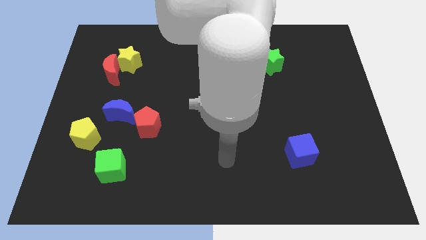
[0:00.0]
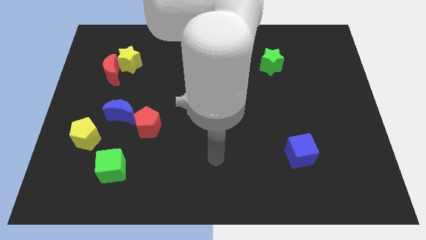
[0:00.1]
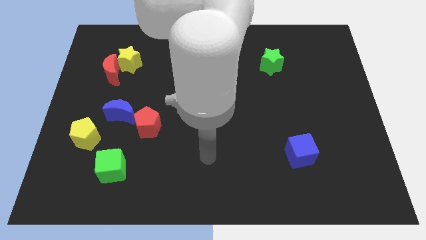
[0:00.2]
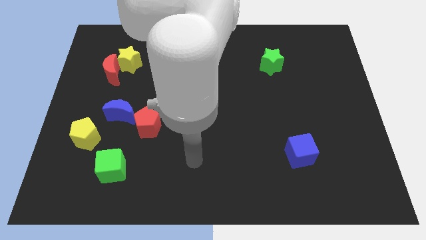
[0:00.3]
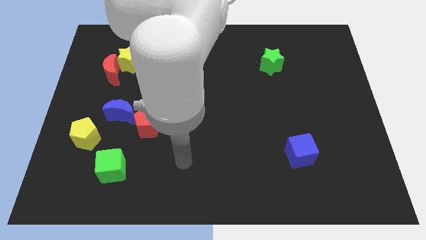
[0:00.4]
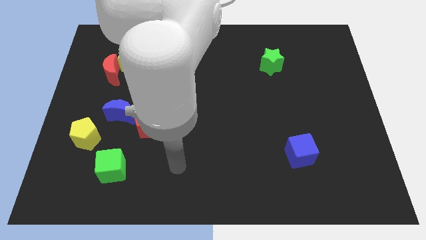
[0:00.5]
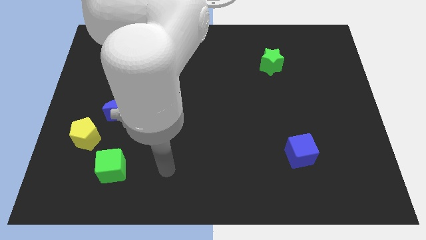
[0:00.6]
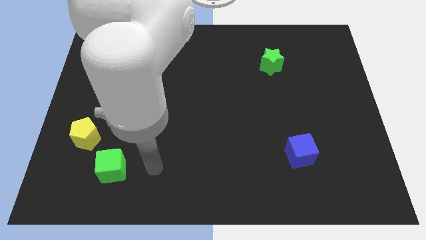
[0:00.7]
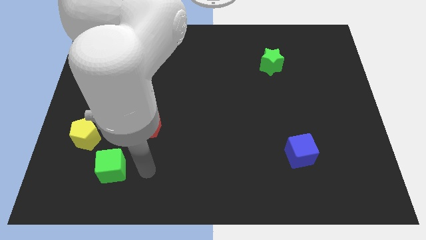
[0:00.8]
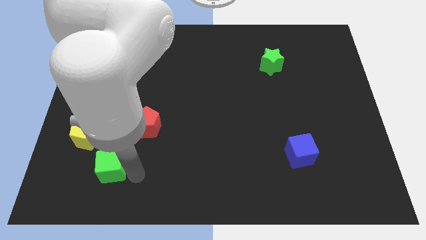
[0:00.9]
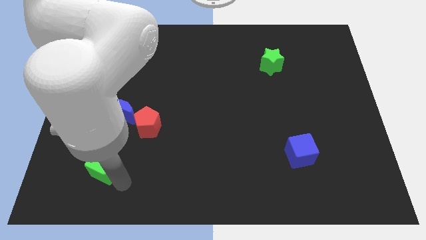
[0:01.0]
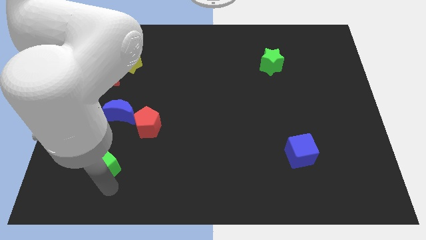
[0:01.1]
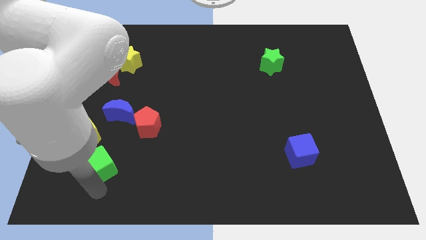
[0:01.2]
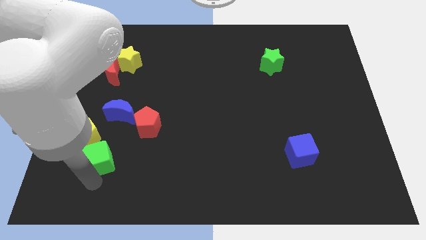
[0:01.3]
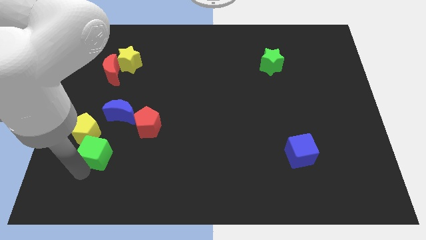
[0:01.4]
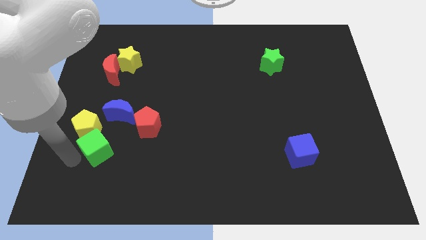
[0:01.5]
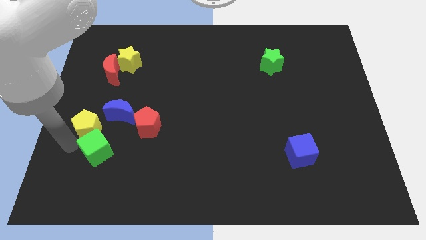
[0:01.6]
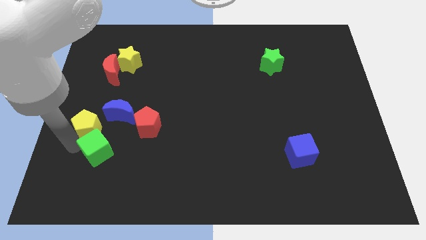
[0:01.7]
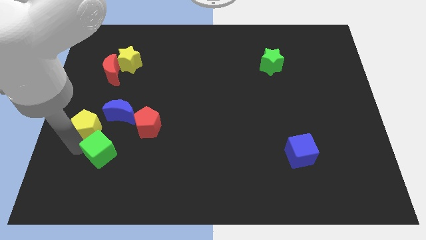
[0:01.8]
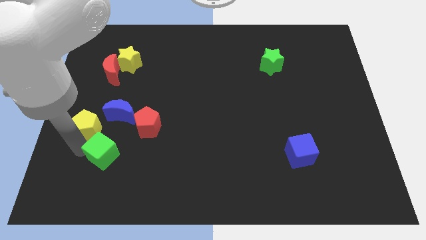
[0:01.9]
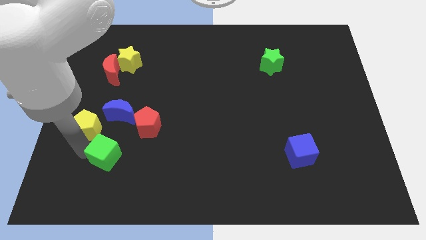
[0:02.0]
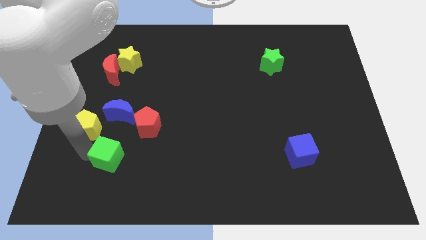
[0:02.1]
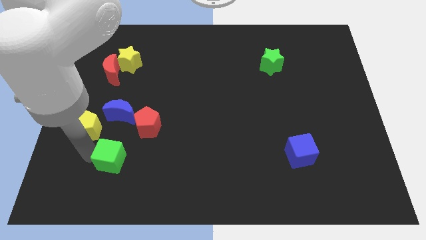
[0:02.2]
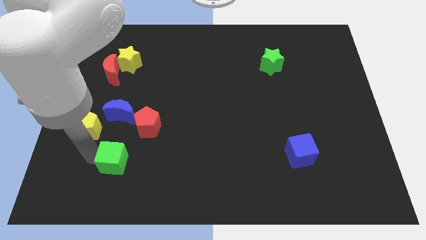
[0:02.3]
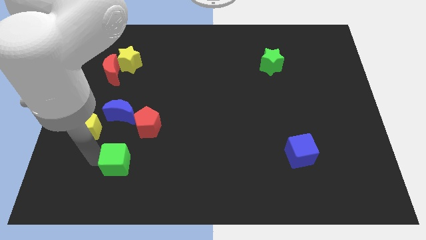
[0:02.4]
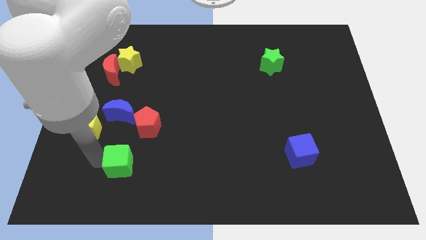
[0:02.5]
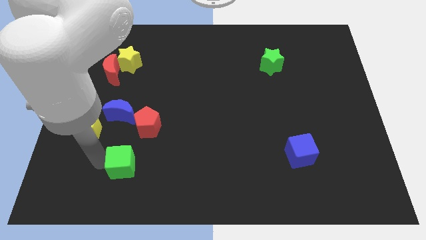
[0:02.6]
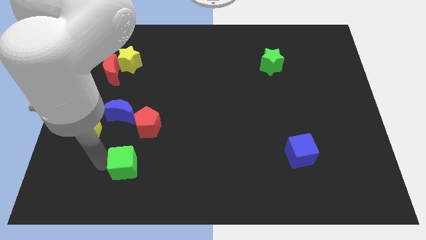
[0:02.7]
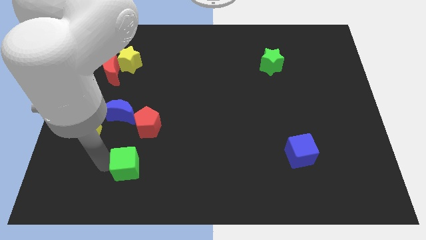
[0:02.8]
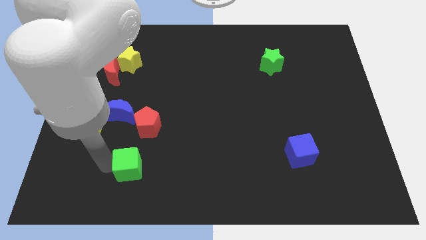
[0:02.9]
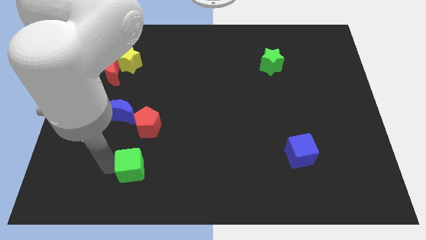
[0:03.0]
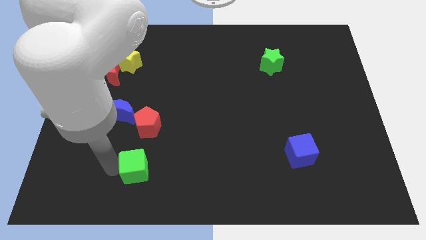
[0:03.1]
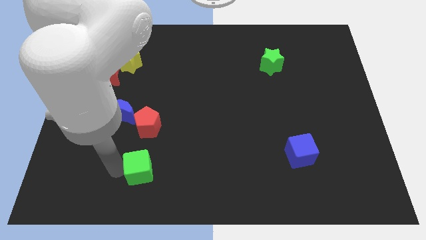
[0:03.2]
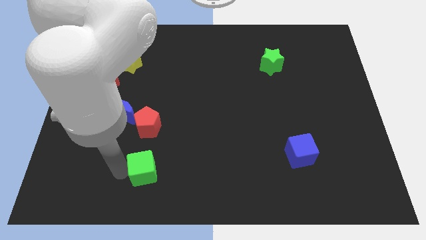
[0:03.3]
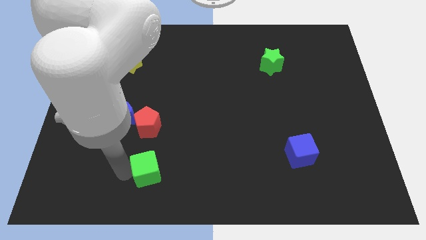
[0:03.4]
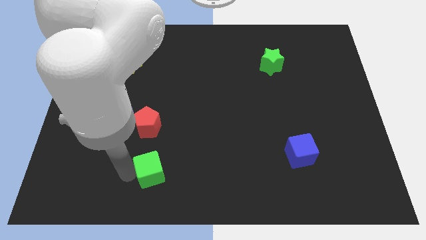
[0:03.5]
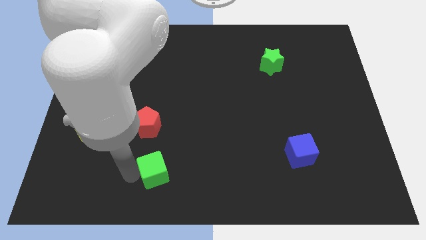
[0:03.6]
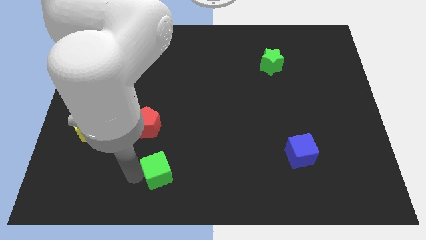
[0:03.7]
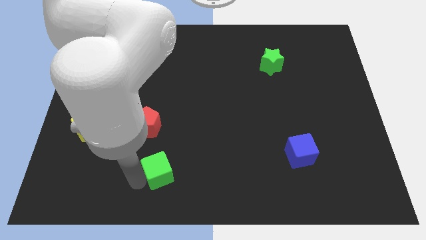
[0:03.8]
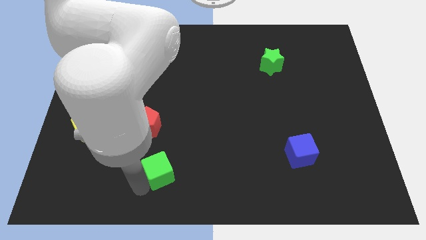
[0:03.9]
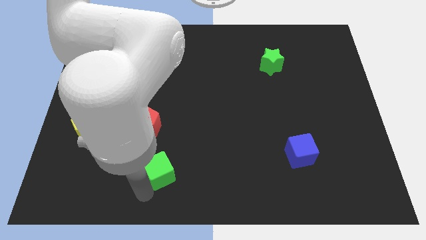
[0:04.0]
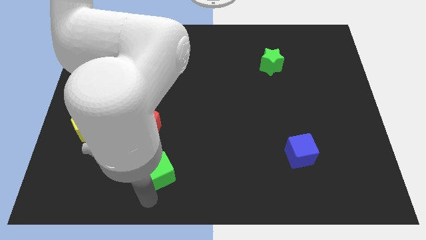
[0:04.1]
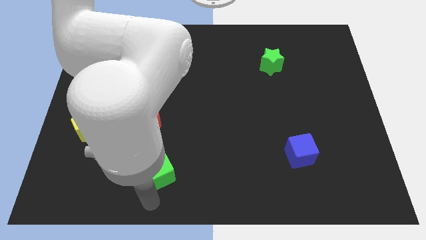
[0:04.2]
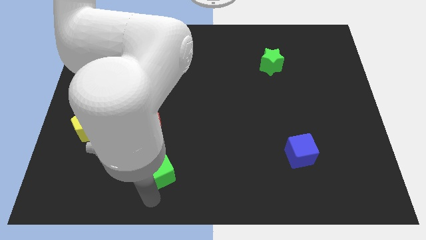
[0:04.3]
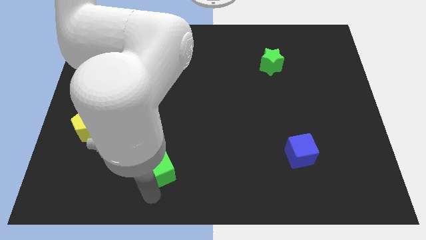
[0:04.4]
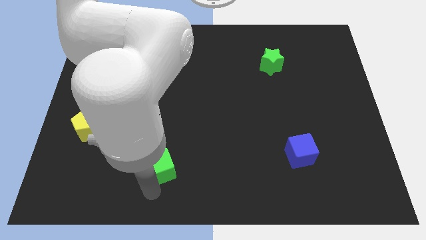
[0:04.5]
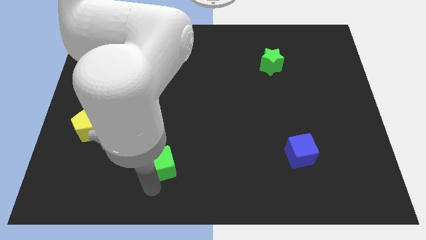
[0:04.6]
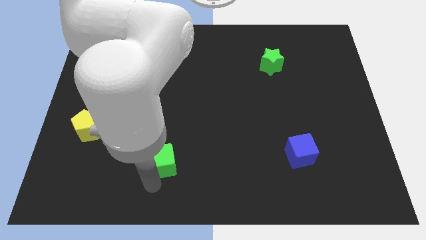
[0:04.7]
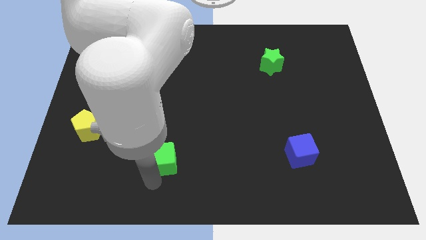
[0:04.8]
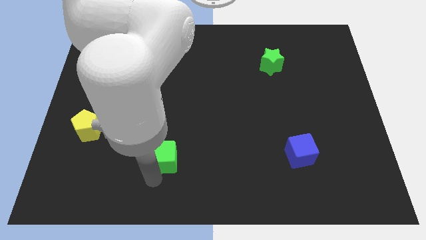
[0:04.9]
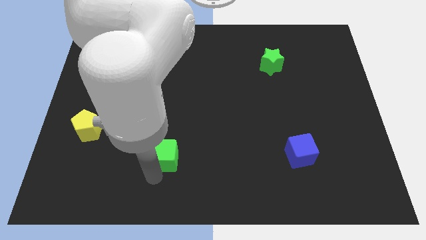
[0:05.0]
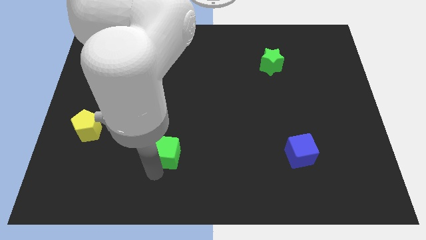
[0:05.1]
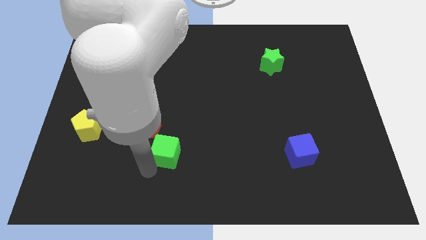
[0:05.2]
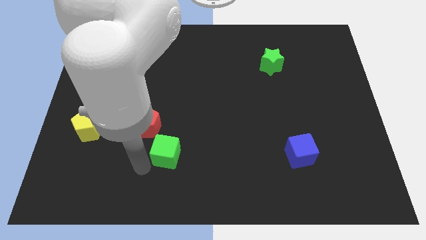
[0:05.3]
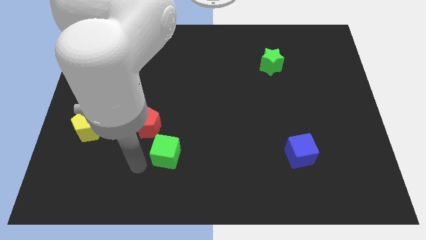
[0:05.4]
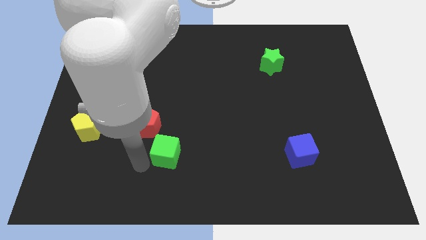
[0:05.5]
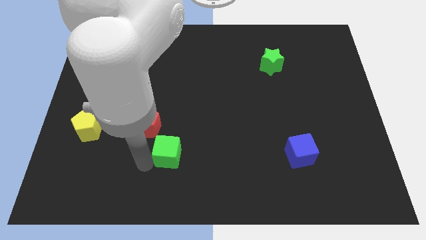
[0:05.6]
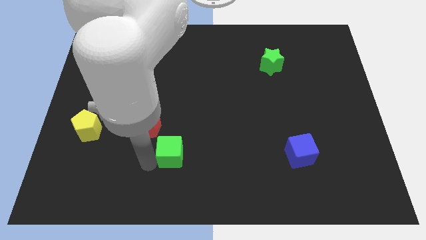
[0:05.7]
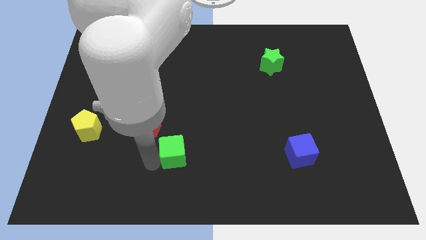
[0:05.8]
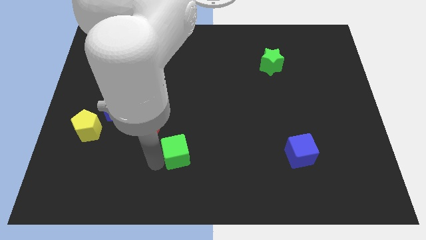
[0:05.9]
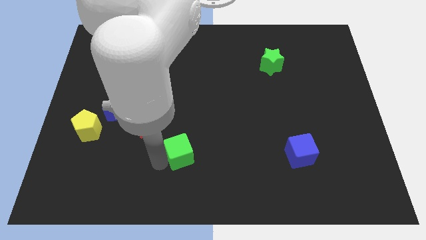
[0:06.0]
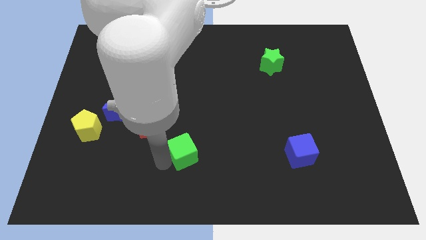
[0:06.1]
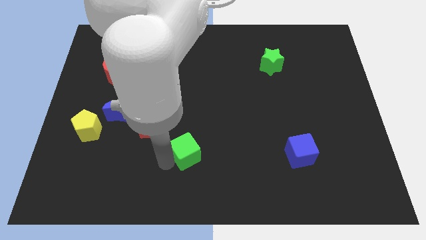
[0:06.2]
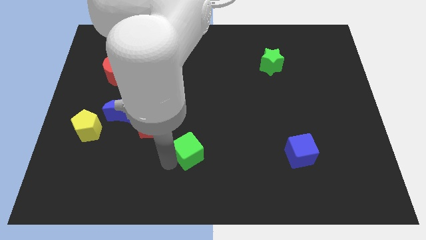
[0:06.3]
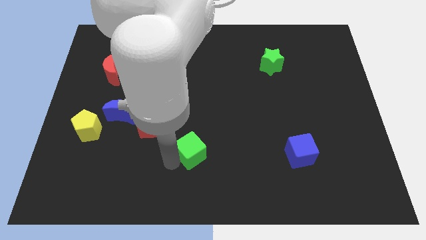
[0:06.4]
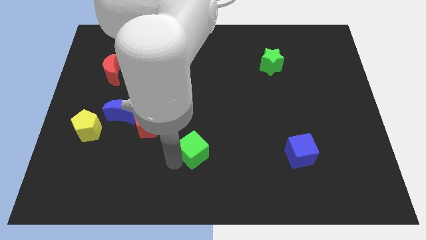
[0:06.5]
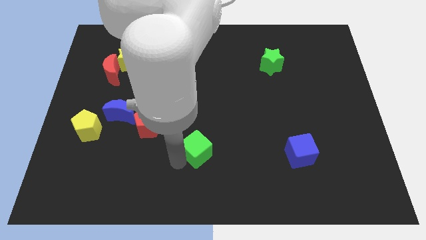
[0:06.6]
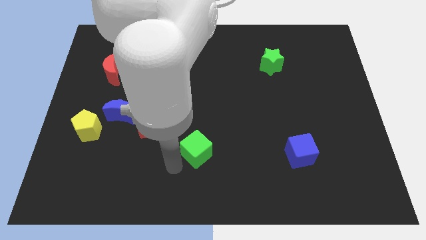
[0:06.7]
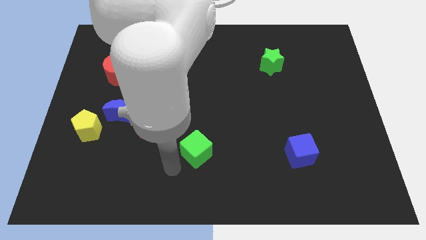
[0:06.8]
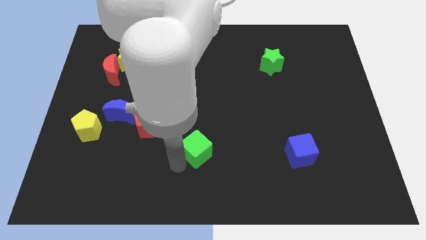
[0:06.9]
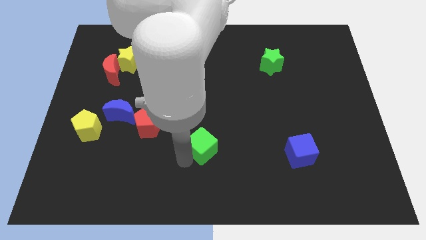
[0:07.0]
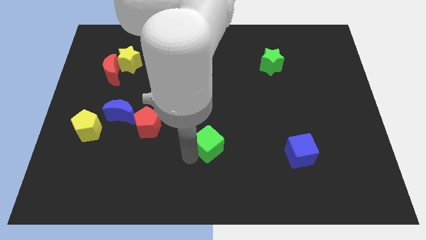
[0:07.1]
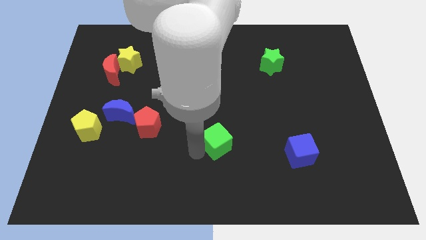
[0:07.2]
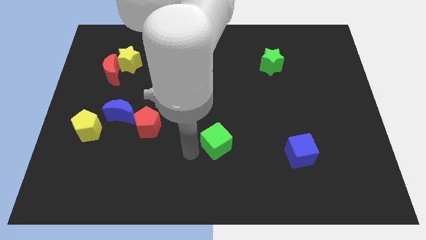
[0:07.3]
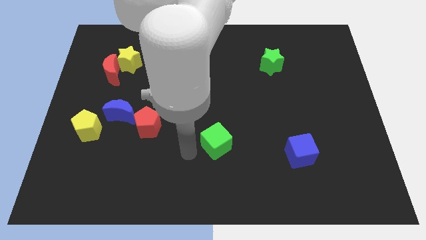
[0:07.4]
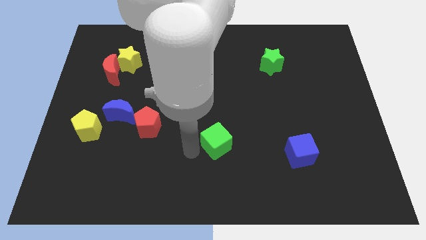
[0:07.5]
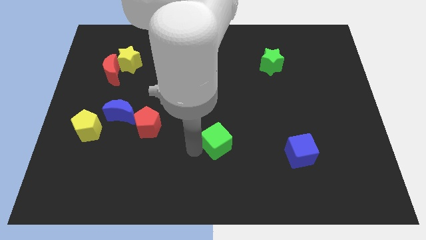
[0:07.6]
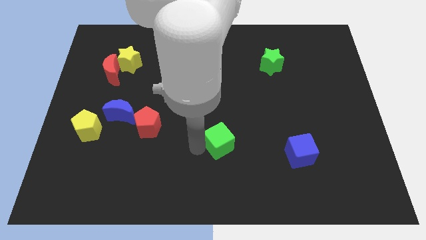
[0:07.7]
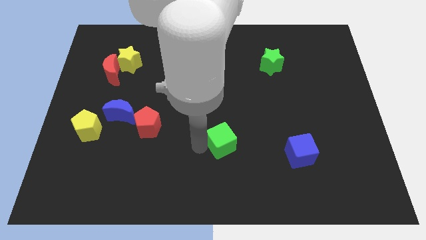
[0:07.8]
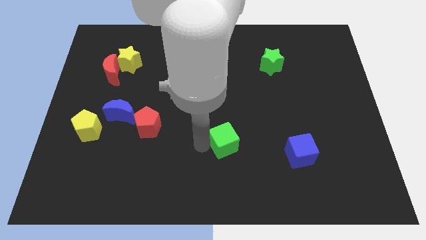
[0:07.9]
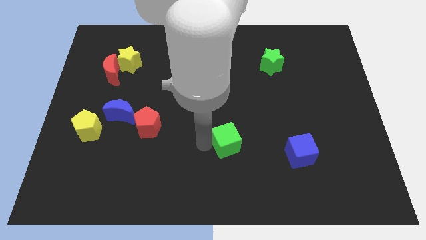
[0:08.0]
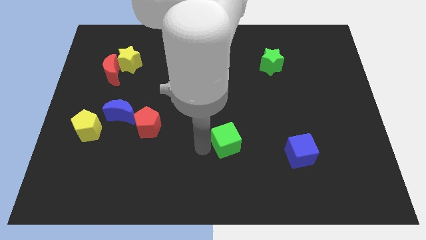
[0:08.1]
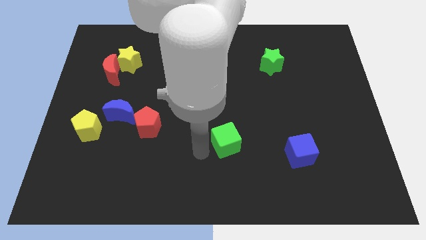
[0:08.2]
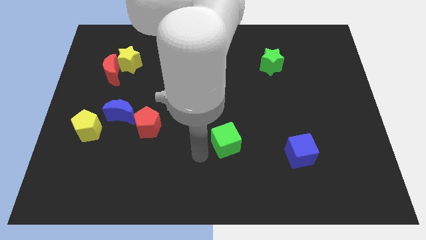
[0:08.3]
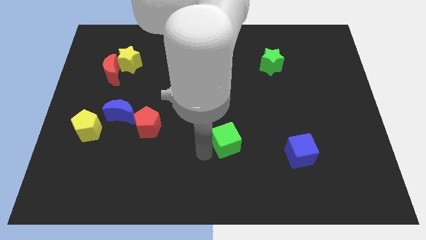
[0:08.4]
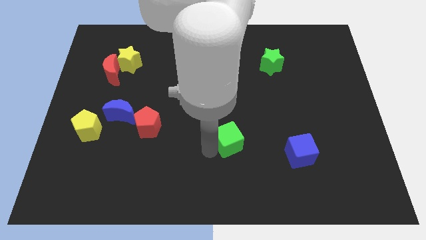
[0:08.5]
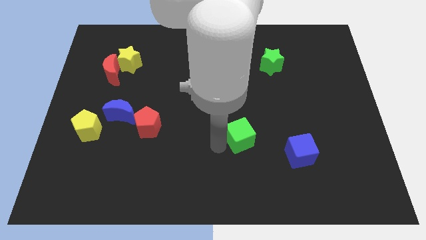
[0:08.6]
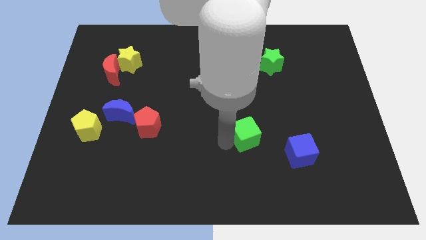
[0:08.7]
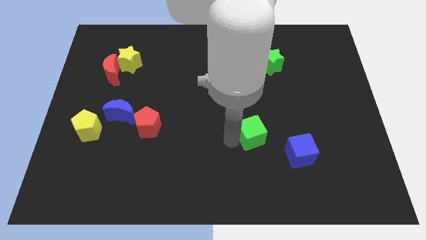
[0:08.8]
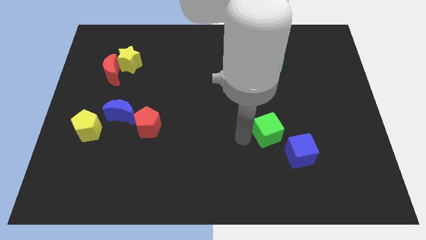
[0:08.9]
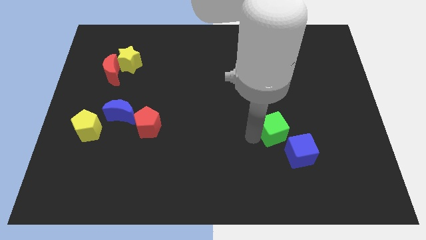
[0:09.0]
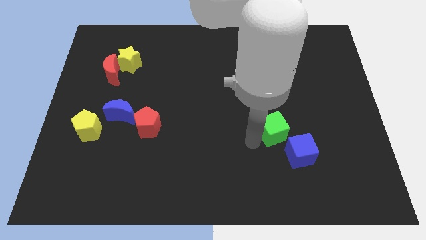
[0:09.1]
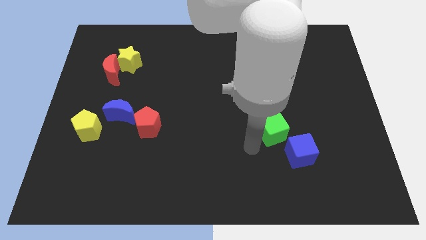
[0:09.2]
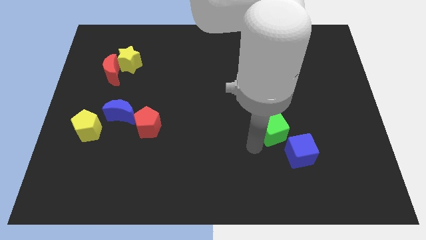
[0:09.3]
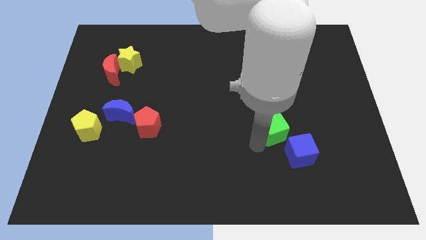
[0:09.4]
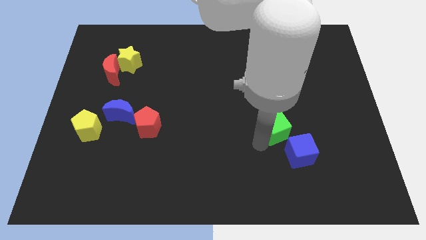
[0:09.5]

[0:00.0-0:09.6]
put the green cube to the top side of the blue cube
